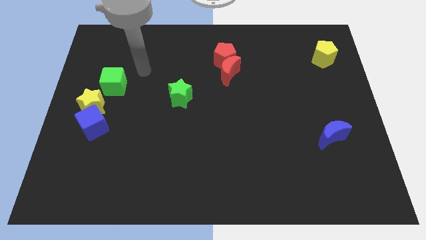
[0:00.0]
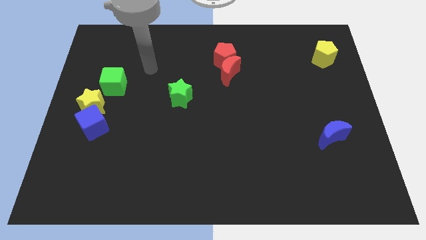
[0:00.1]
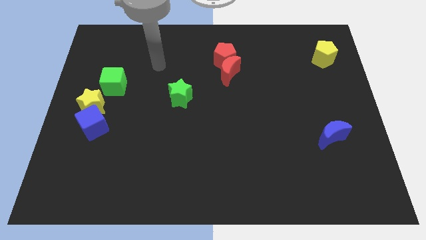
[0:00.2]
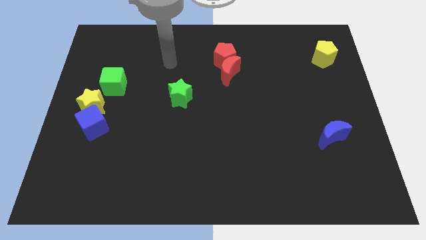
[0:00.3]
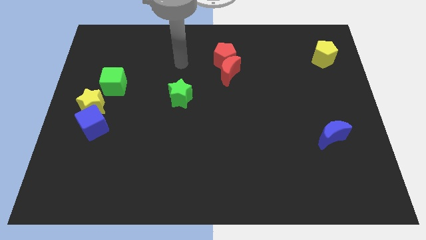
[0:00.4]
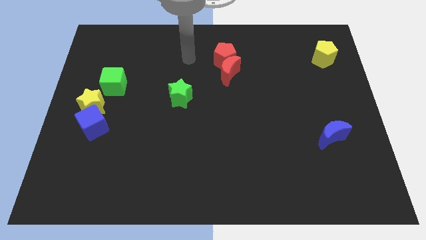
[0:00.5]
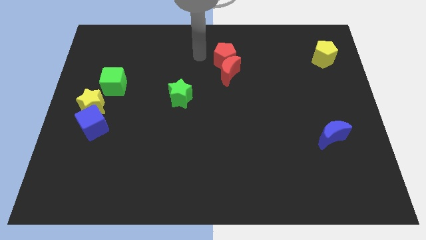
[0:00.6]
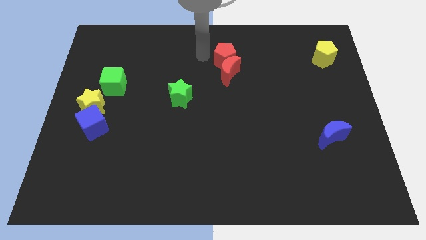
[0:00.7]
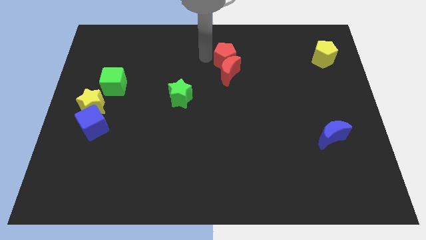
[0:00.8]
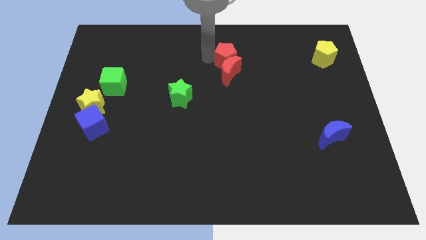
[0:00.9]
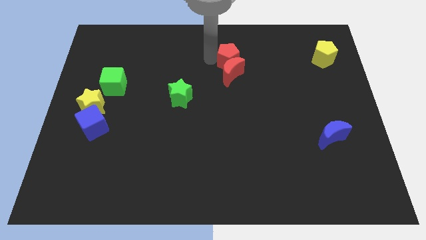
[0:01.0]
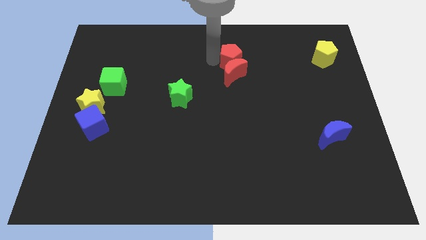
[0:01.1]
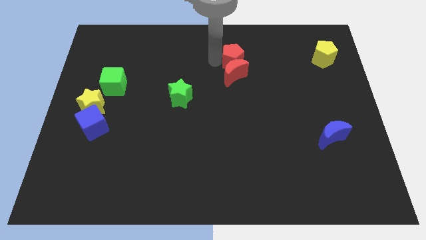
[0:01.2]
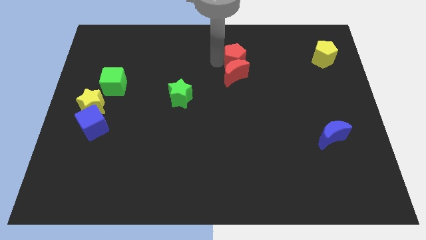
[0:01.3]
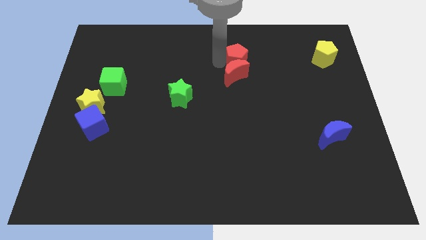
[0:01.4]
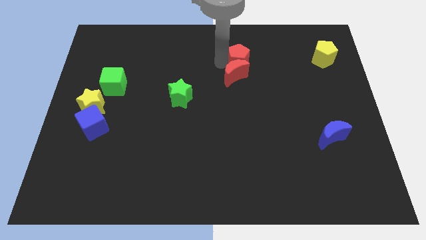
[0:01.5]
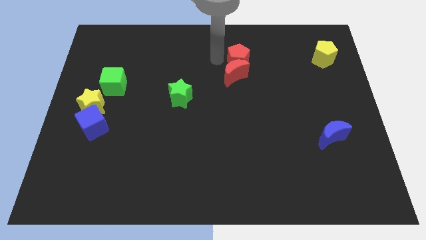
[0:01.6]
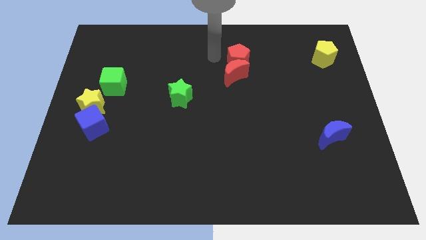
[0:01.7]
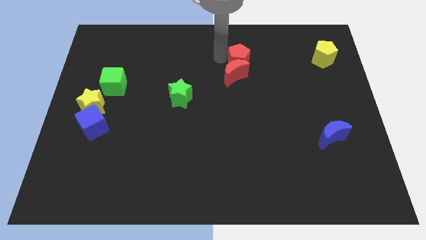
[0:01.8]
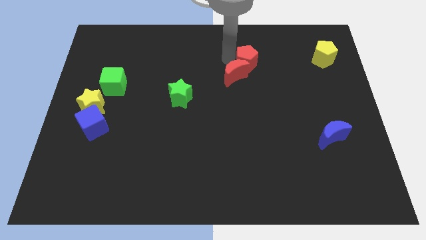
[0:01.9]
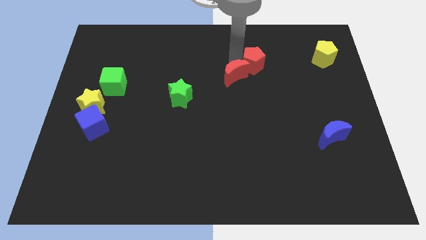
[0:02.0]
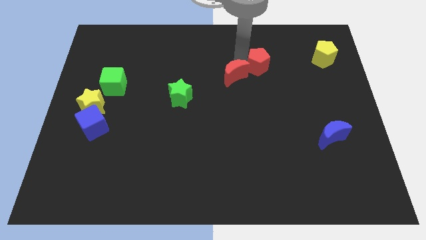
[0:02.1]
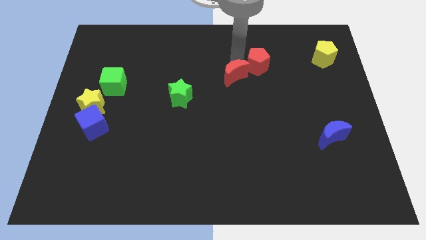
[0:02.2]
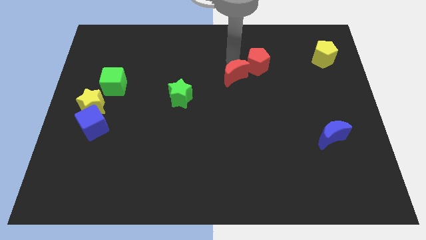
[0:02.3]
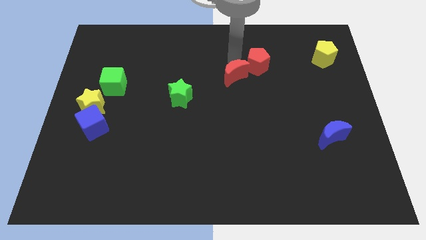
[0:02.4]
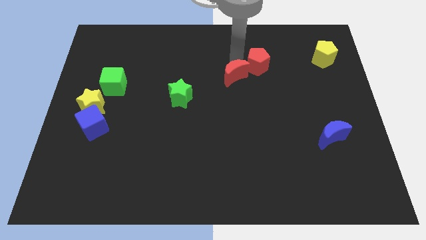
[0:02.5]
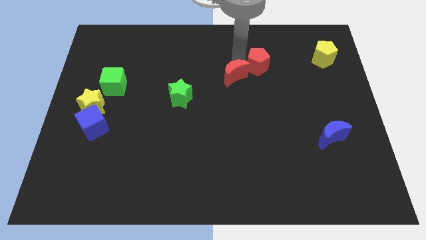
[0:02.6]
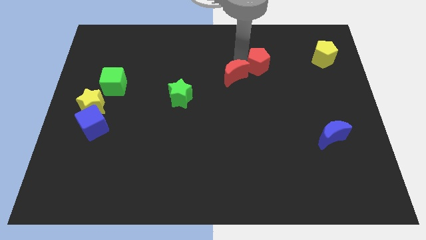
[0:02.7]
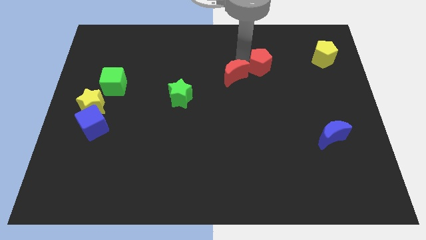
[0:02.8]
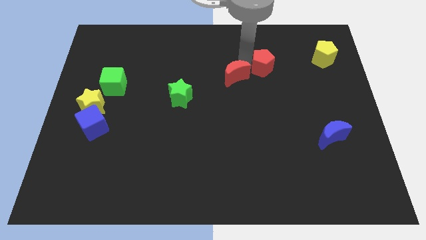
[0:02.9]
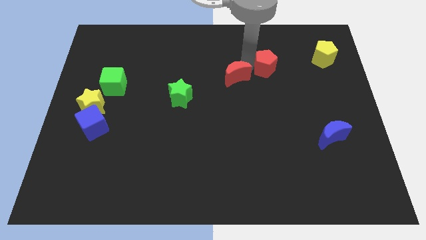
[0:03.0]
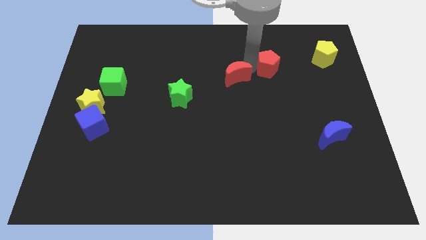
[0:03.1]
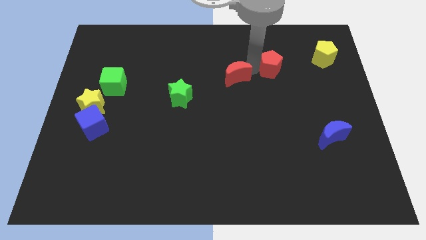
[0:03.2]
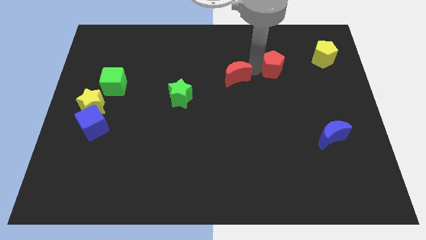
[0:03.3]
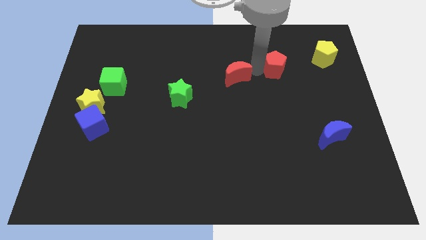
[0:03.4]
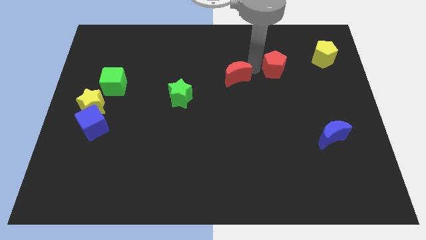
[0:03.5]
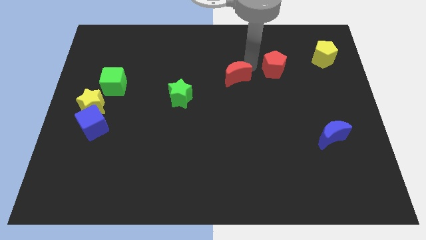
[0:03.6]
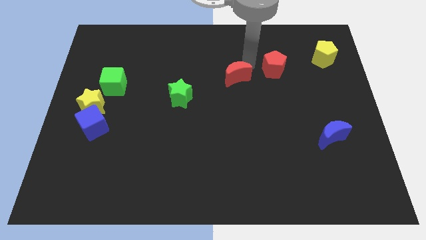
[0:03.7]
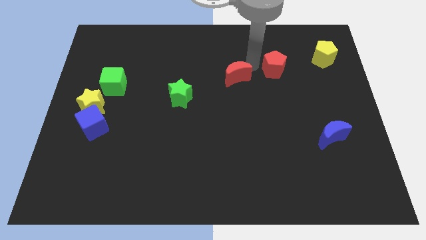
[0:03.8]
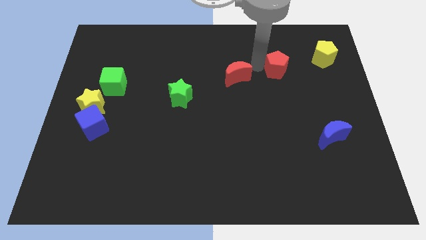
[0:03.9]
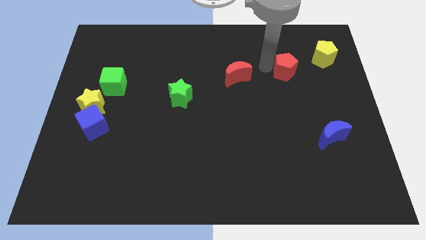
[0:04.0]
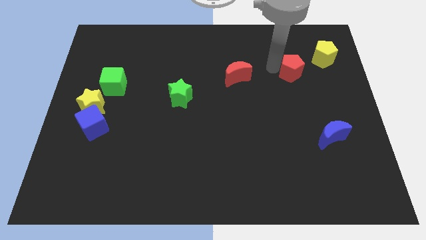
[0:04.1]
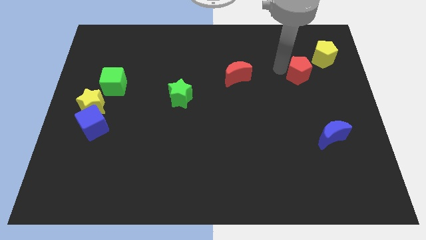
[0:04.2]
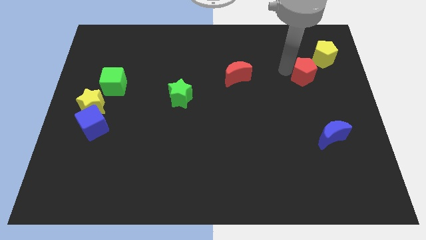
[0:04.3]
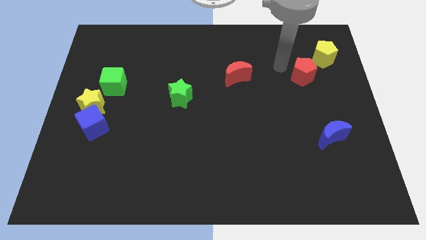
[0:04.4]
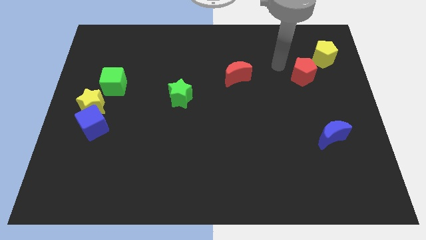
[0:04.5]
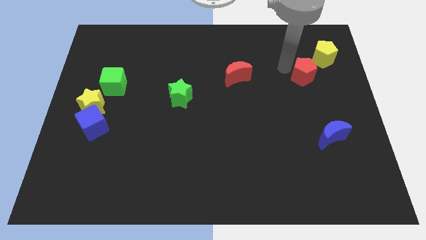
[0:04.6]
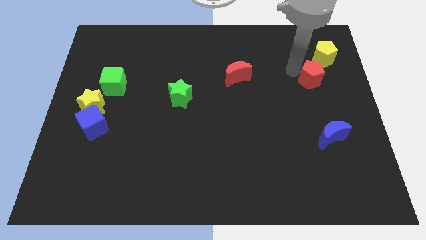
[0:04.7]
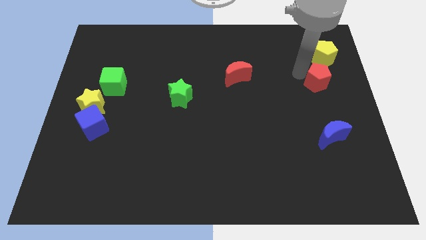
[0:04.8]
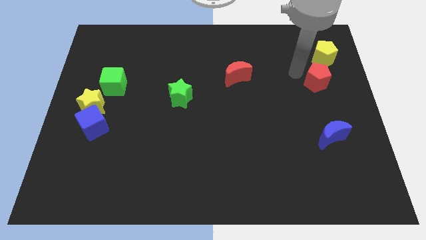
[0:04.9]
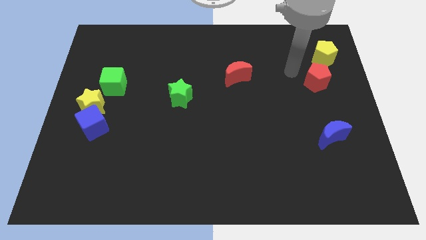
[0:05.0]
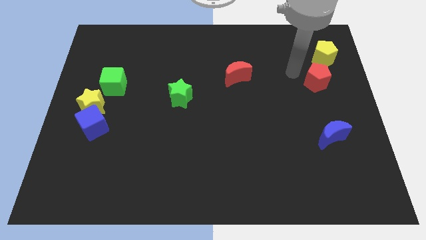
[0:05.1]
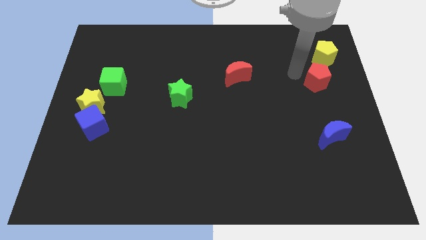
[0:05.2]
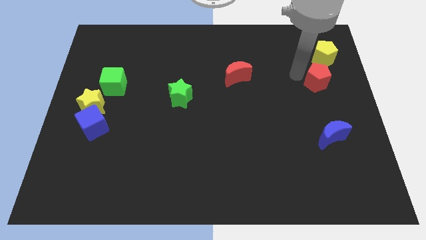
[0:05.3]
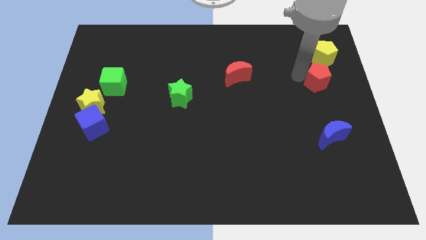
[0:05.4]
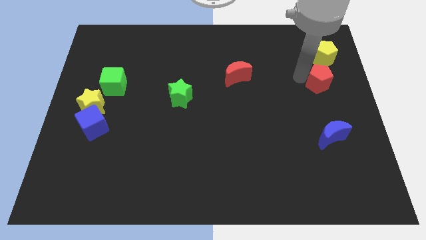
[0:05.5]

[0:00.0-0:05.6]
put the red pentagon to the right side of the board
